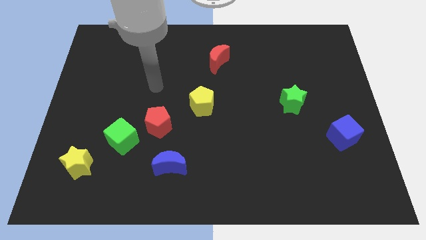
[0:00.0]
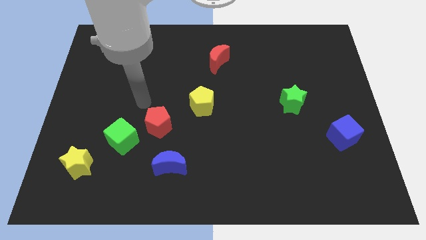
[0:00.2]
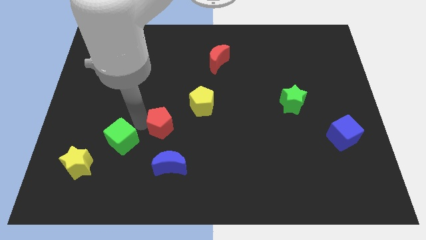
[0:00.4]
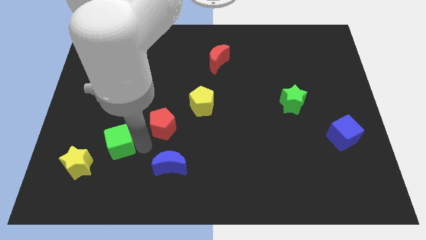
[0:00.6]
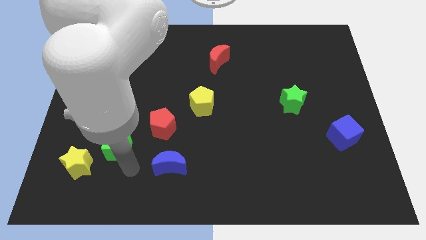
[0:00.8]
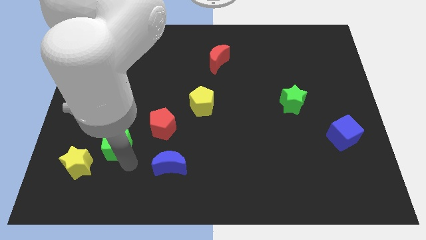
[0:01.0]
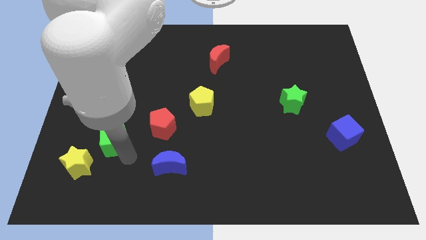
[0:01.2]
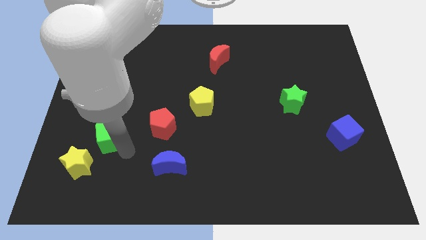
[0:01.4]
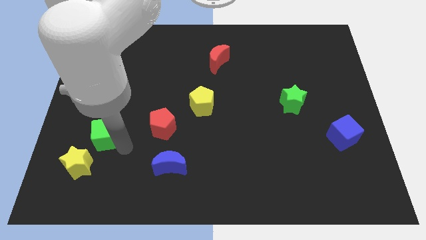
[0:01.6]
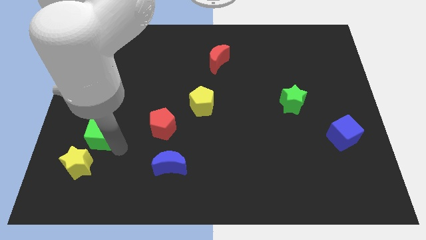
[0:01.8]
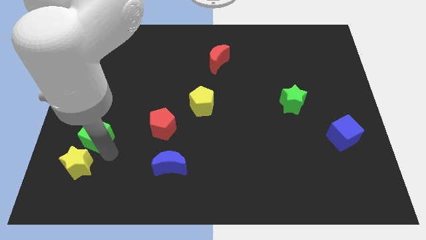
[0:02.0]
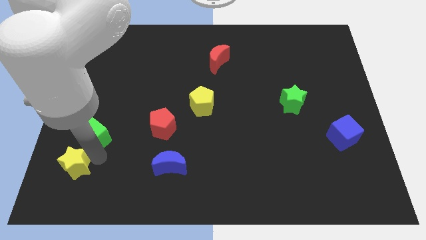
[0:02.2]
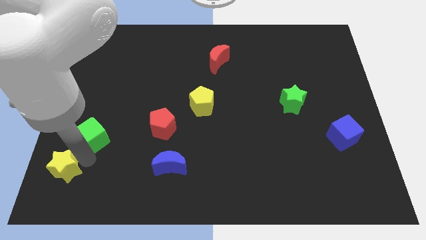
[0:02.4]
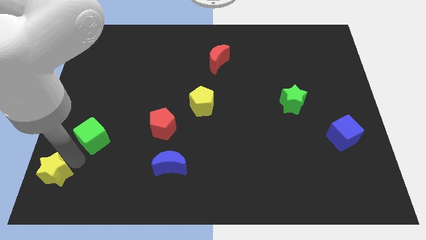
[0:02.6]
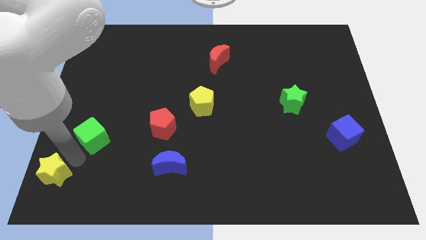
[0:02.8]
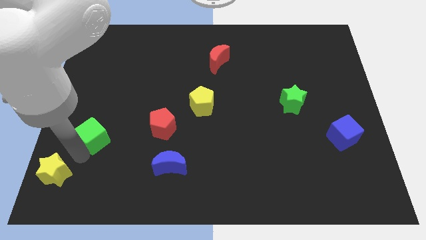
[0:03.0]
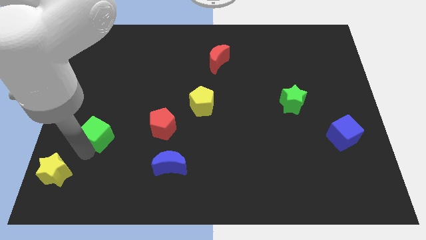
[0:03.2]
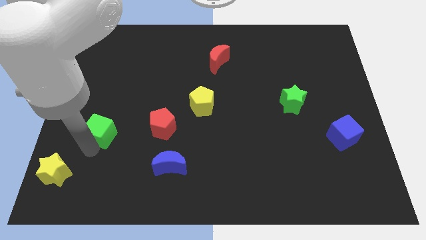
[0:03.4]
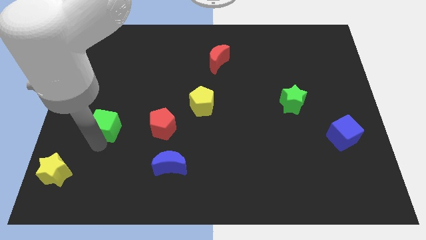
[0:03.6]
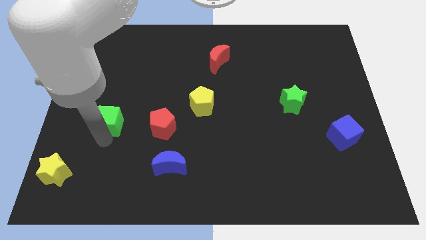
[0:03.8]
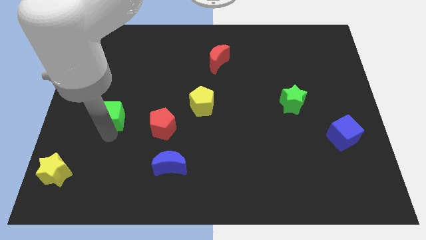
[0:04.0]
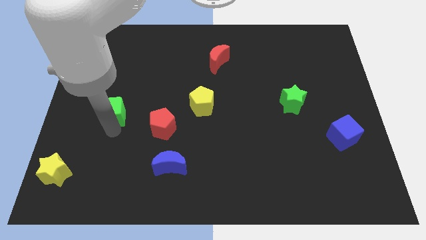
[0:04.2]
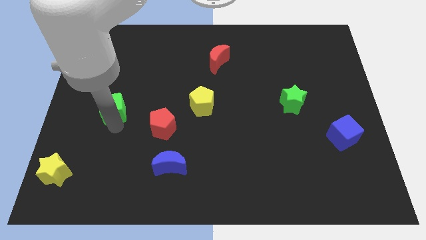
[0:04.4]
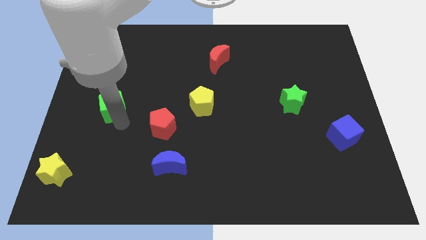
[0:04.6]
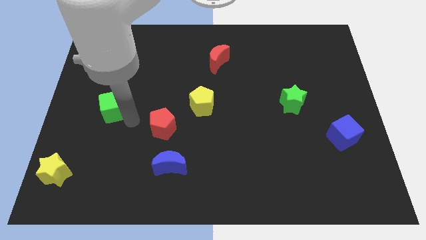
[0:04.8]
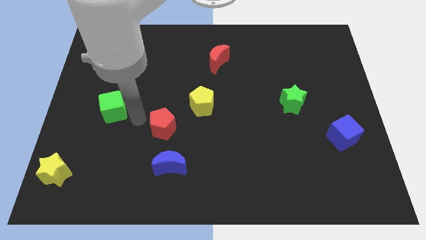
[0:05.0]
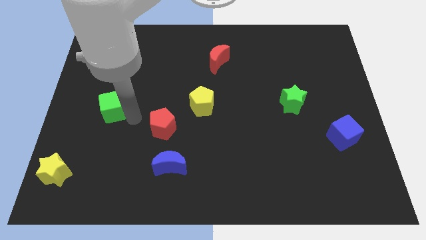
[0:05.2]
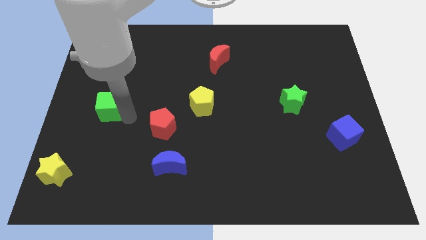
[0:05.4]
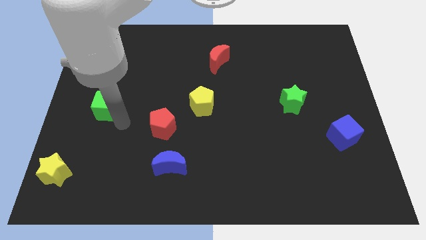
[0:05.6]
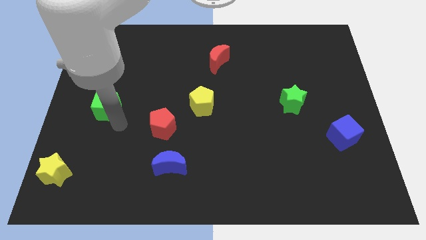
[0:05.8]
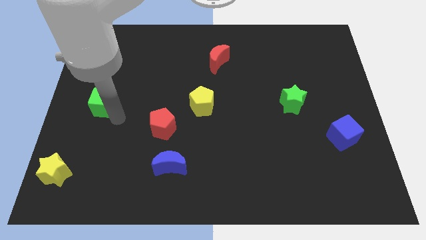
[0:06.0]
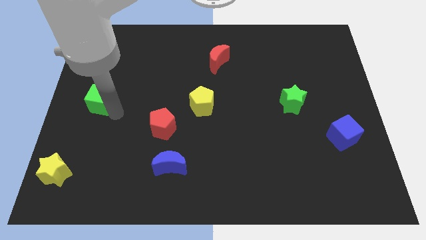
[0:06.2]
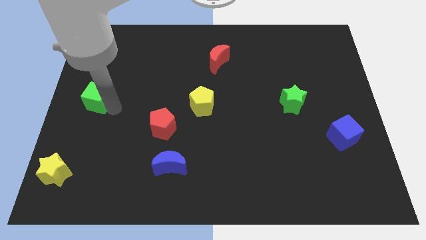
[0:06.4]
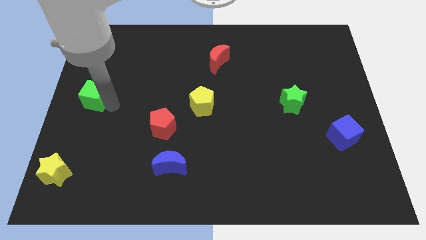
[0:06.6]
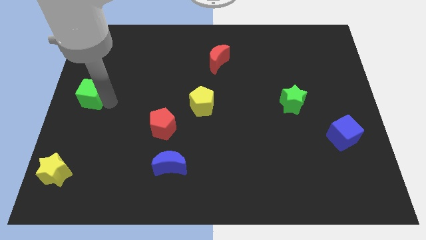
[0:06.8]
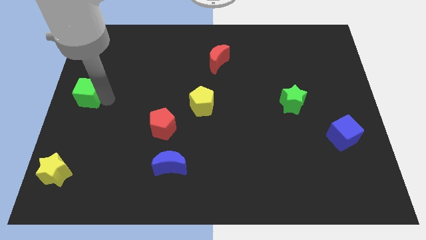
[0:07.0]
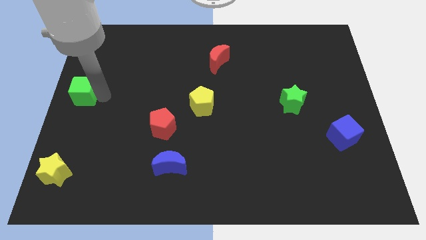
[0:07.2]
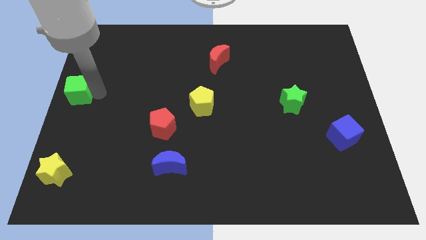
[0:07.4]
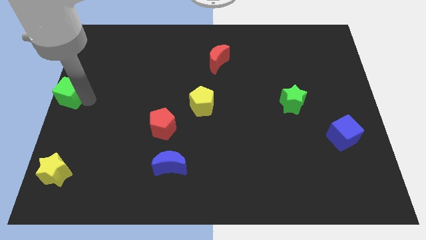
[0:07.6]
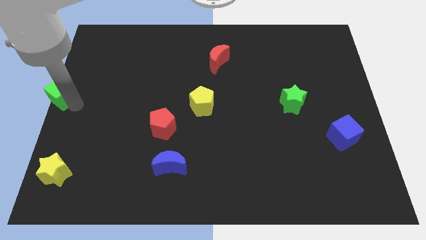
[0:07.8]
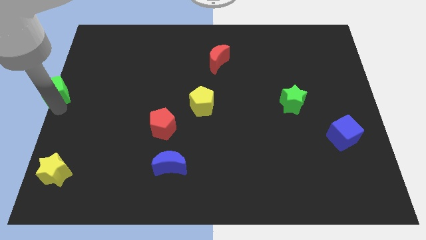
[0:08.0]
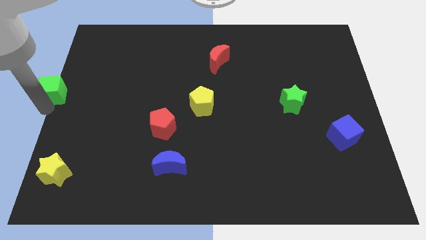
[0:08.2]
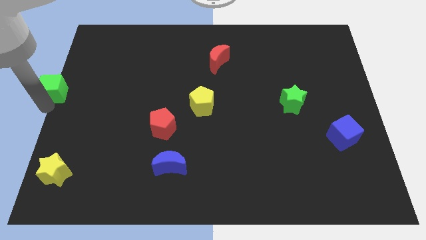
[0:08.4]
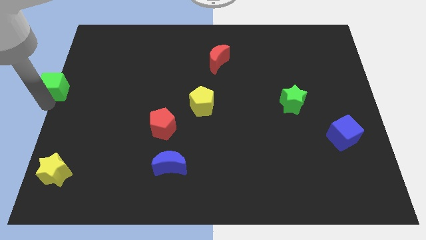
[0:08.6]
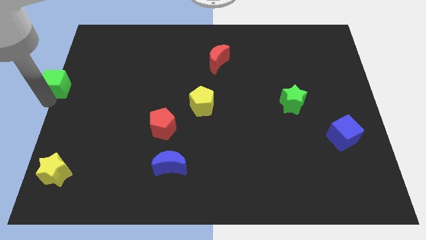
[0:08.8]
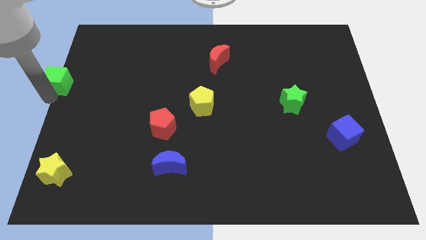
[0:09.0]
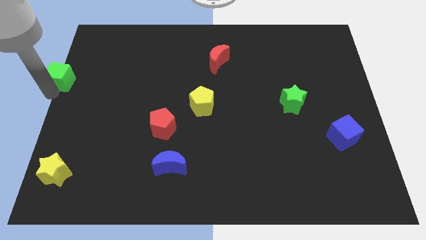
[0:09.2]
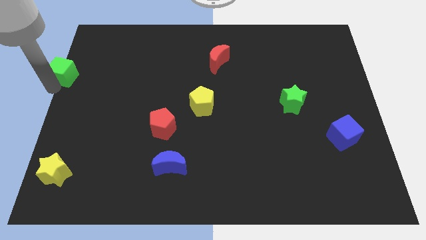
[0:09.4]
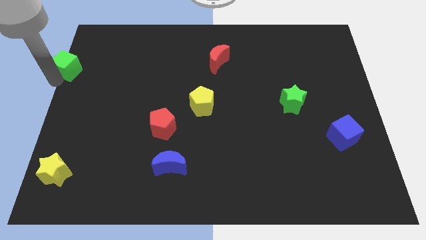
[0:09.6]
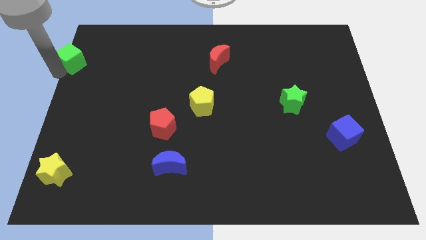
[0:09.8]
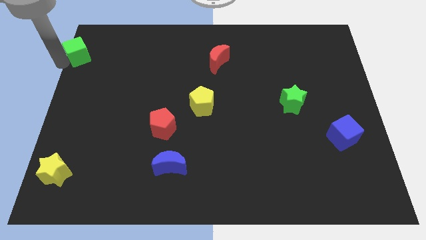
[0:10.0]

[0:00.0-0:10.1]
move the green cube to the top left

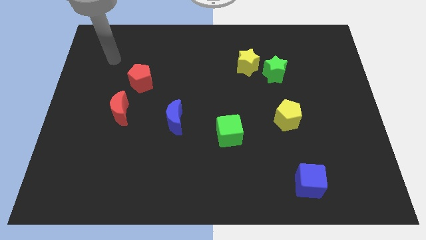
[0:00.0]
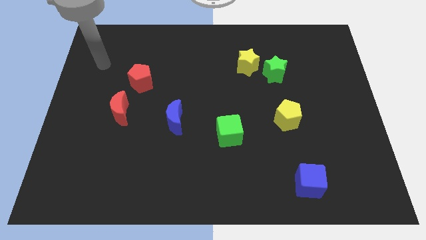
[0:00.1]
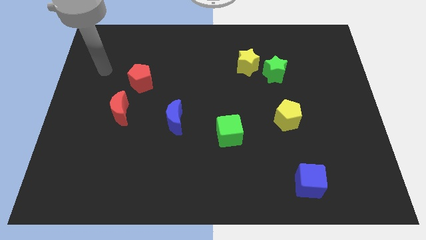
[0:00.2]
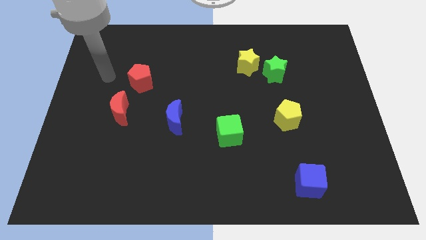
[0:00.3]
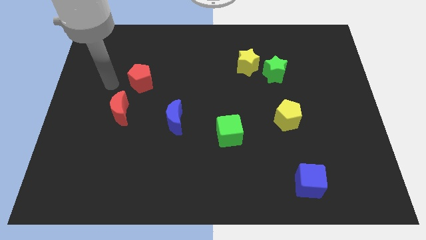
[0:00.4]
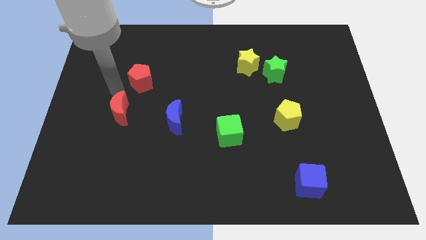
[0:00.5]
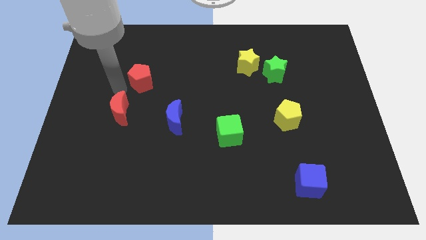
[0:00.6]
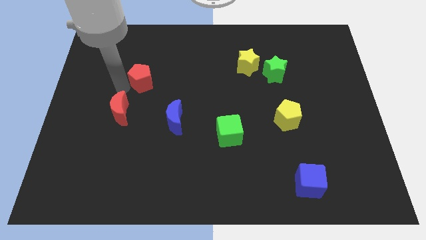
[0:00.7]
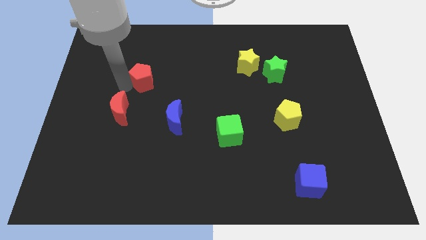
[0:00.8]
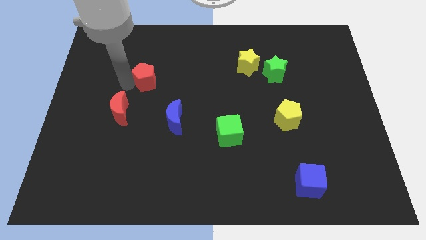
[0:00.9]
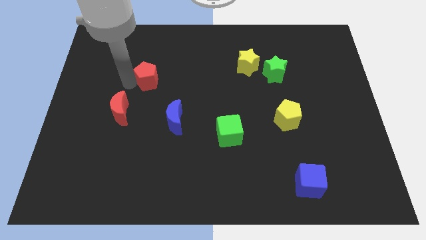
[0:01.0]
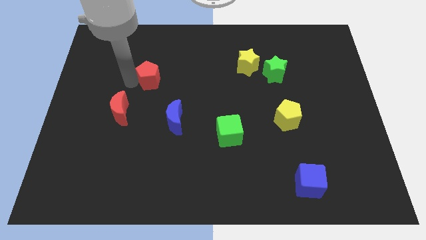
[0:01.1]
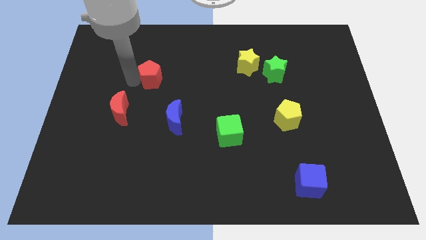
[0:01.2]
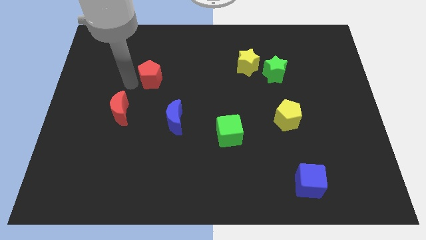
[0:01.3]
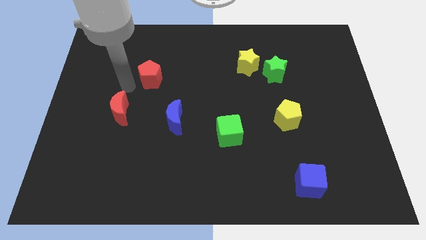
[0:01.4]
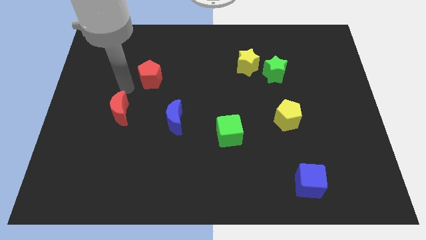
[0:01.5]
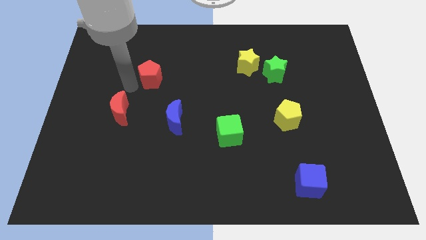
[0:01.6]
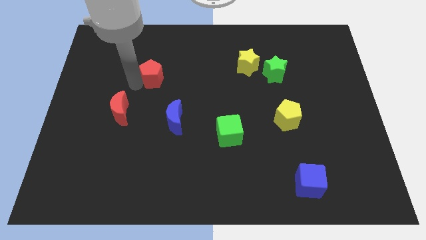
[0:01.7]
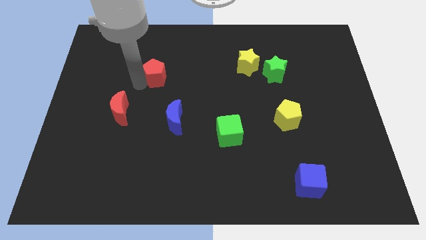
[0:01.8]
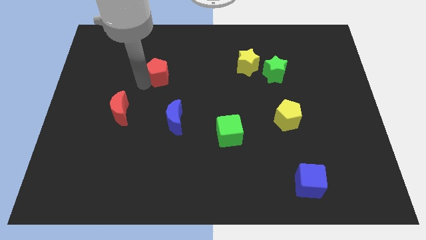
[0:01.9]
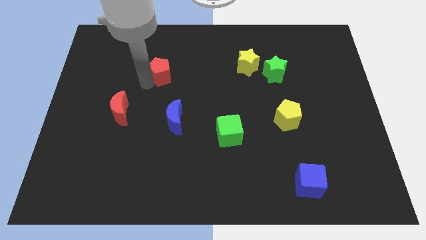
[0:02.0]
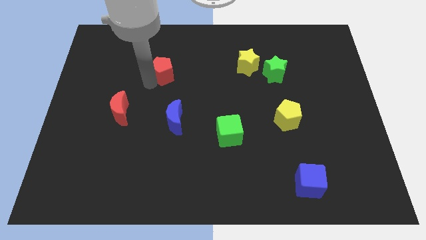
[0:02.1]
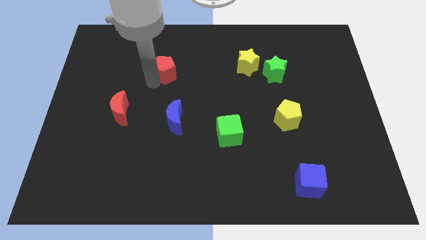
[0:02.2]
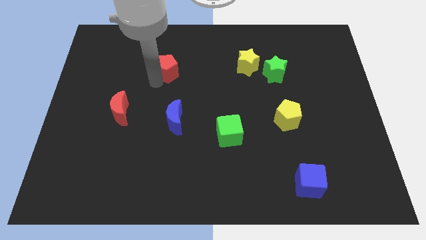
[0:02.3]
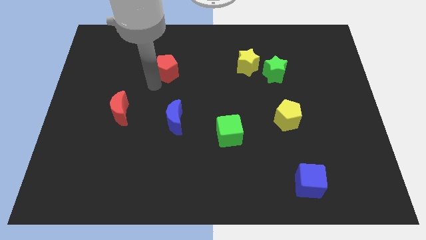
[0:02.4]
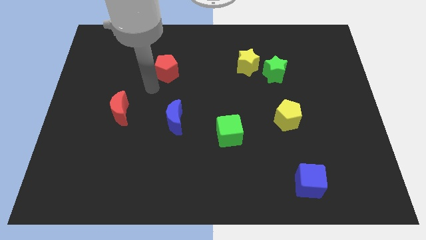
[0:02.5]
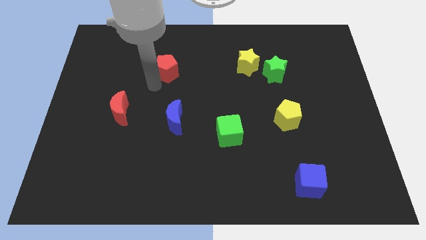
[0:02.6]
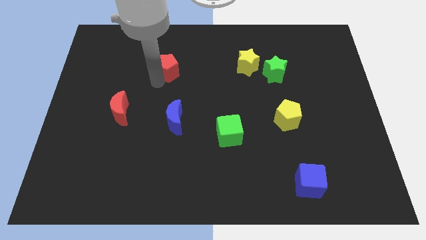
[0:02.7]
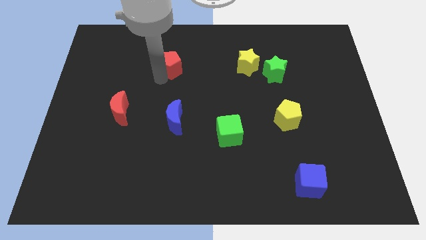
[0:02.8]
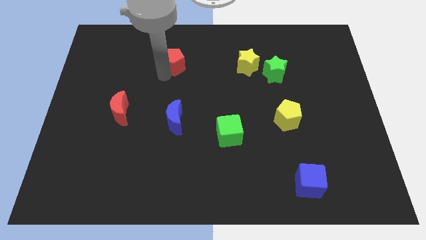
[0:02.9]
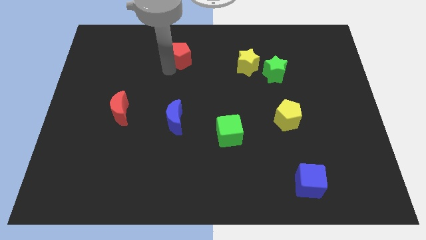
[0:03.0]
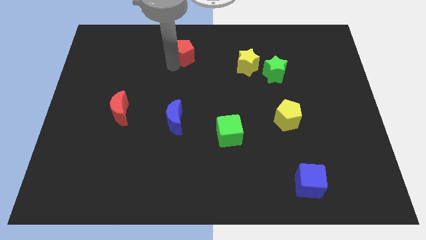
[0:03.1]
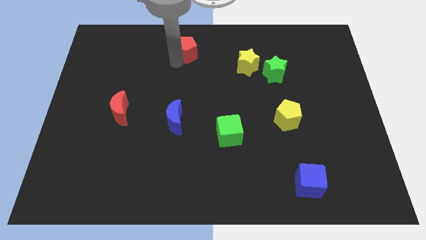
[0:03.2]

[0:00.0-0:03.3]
push the red pentagon to the top side
